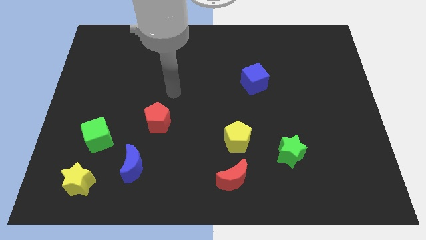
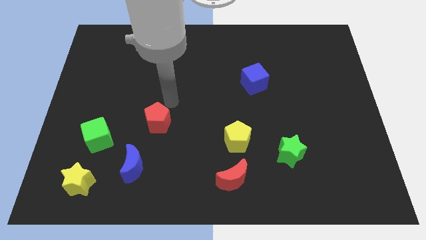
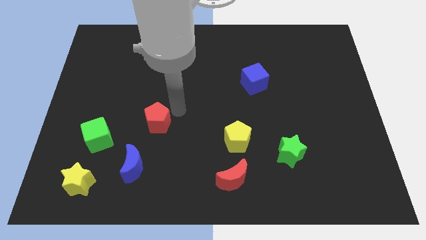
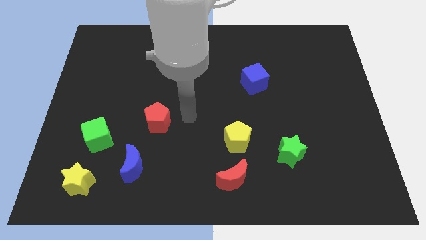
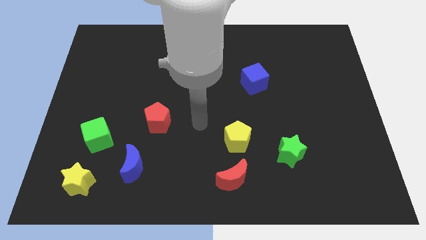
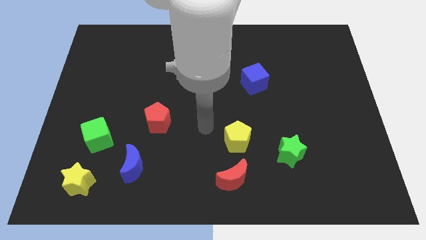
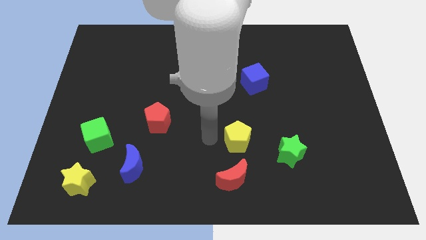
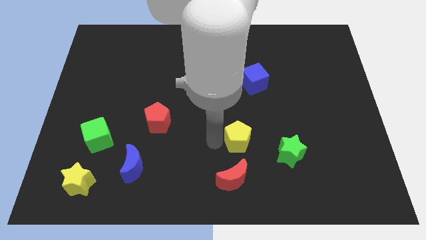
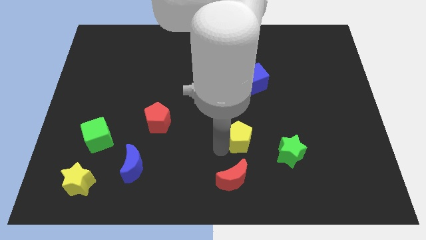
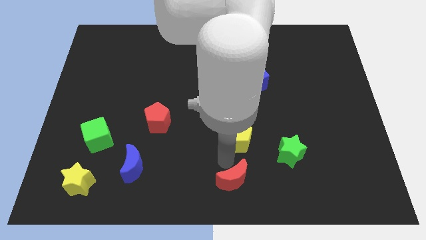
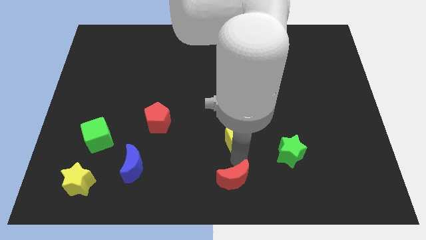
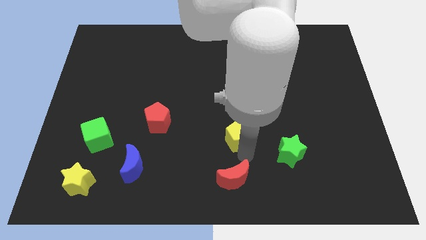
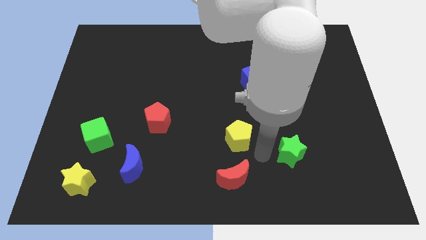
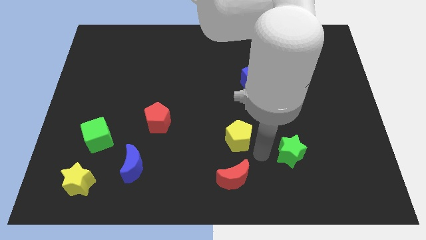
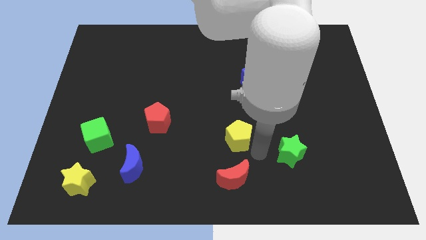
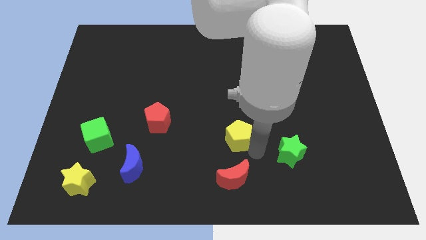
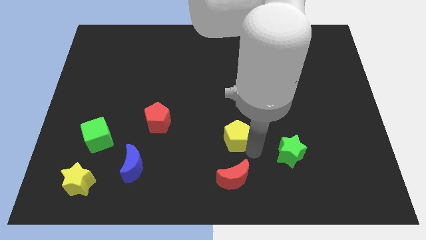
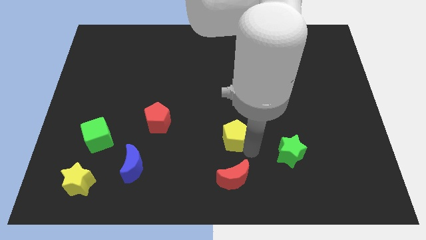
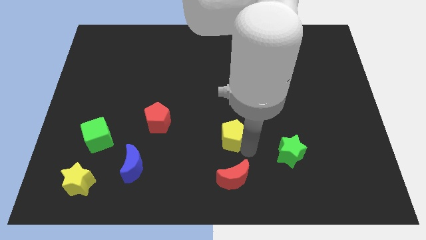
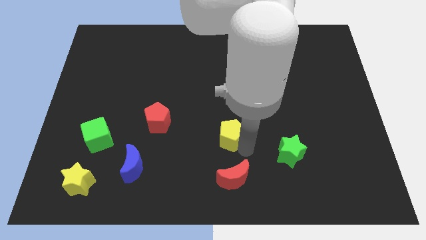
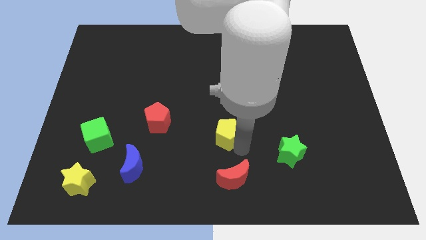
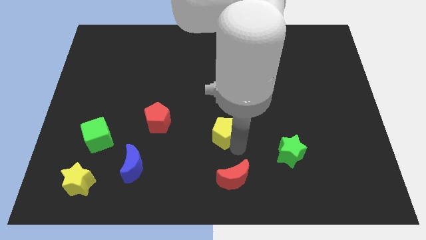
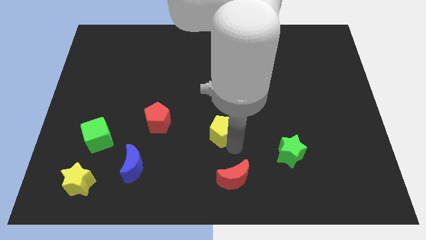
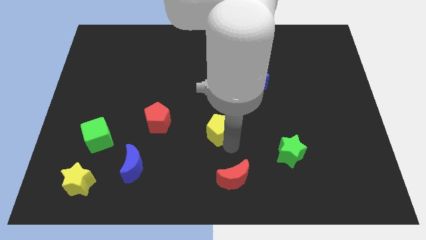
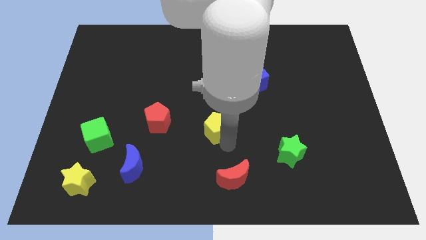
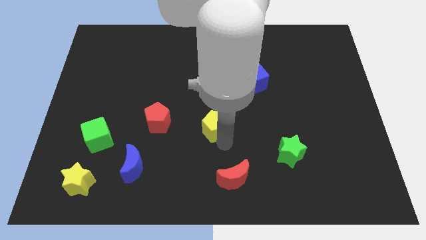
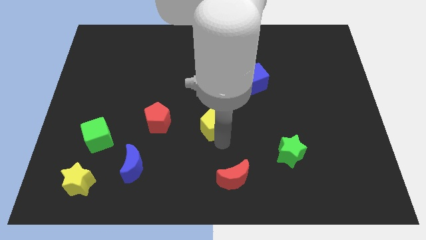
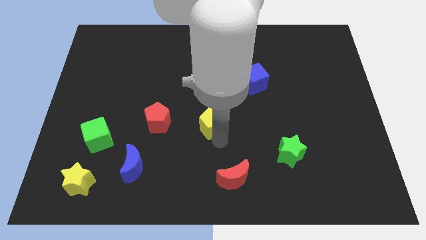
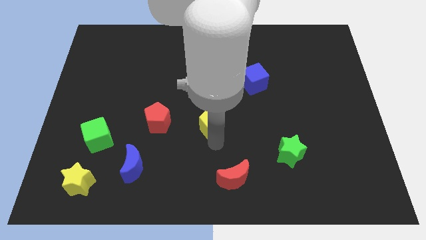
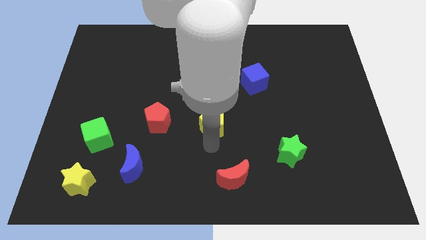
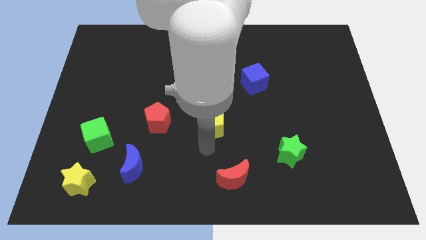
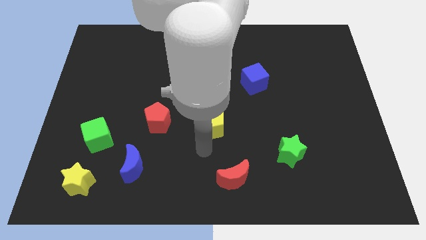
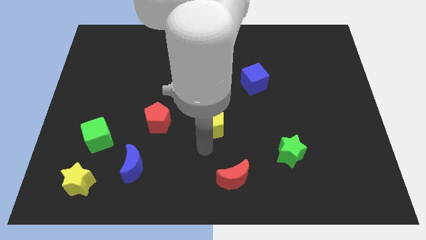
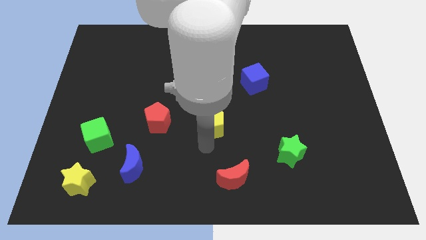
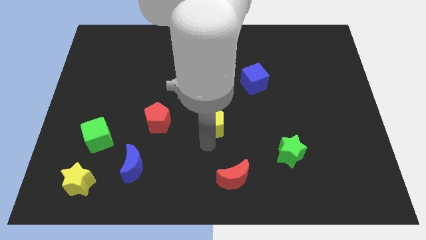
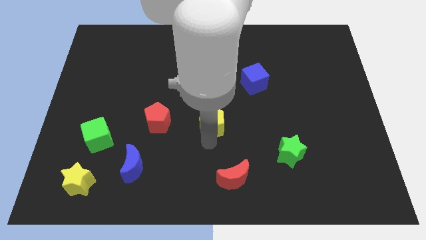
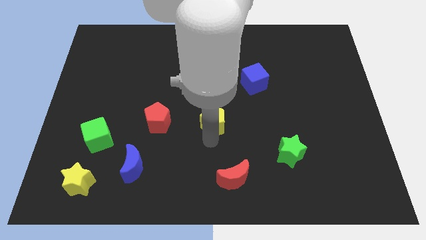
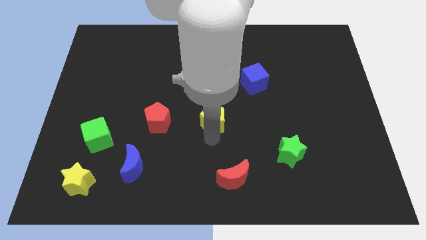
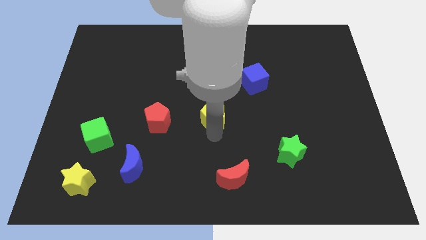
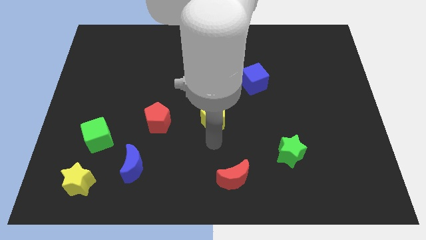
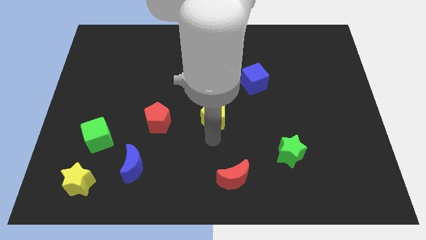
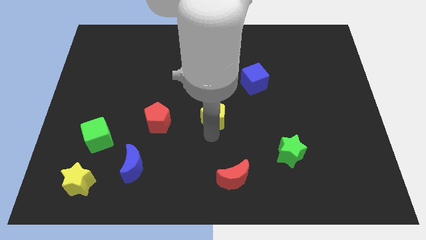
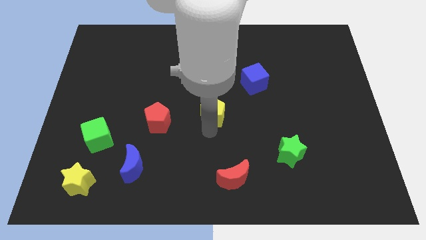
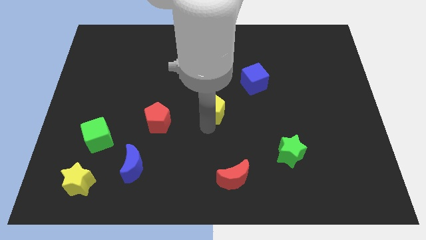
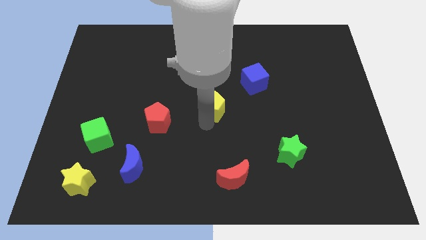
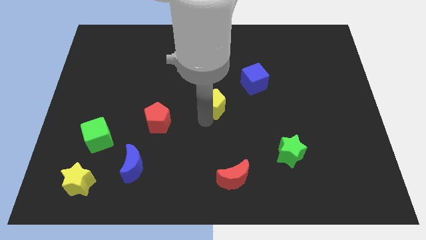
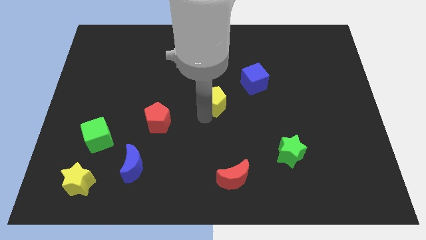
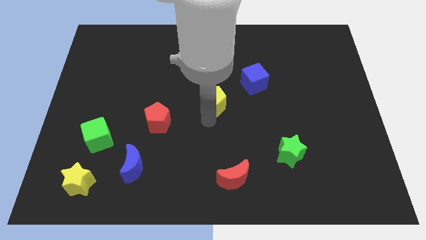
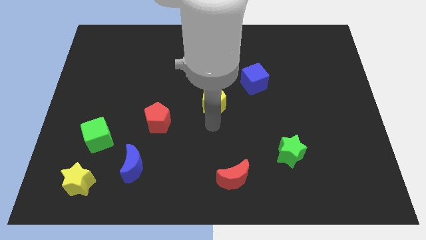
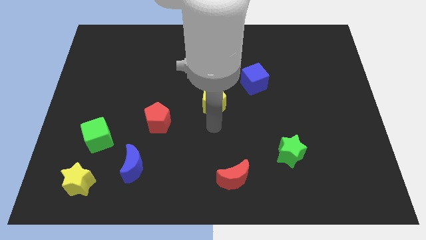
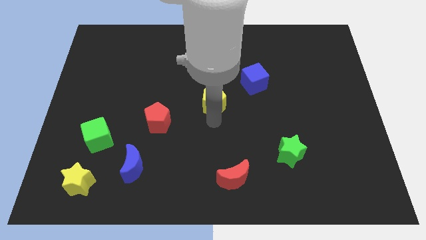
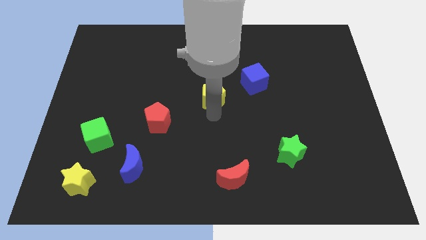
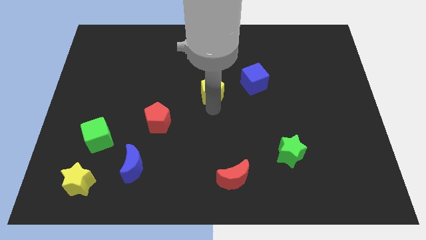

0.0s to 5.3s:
move the yellow pentagon to the left side of the blue cube
